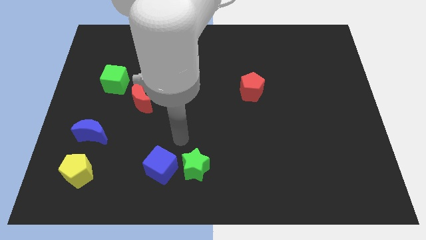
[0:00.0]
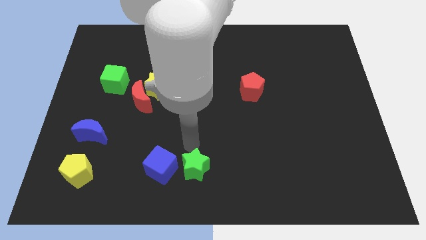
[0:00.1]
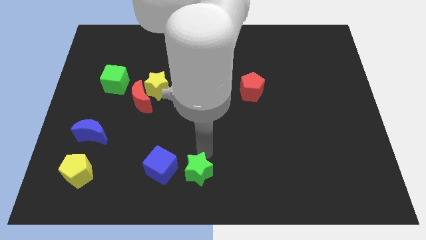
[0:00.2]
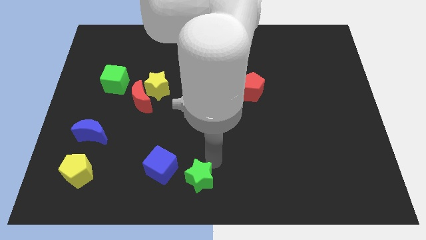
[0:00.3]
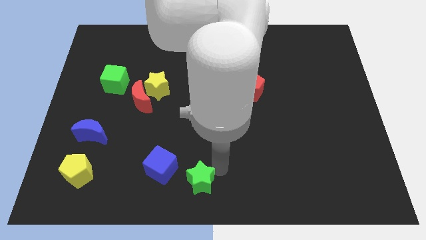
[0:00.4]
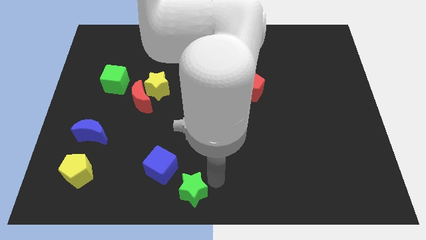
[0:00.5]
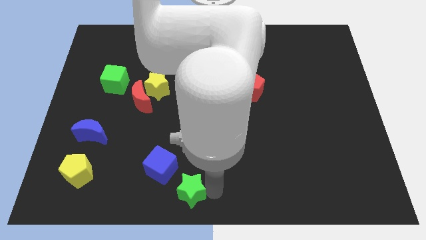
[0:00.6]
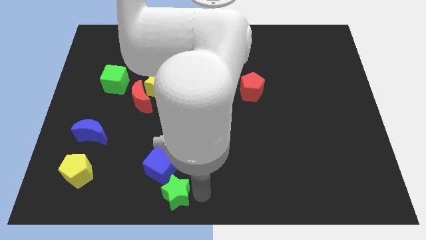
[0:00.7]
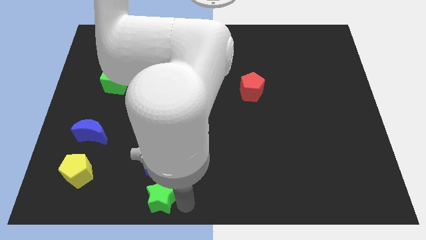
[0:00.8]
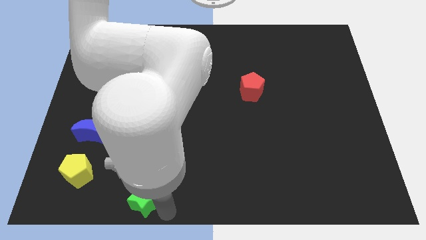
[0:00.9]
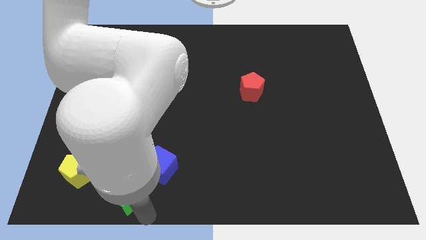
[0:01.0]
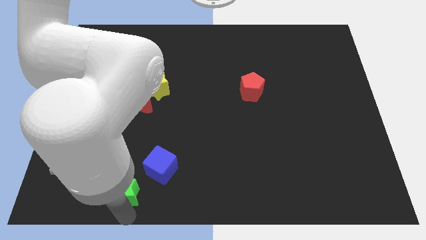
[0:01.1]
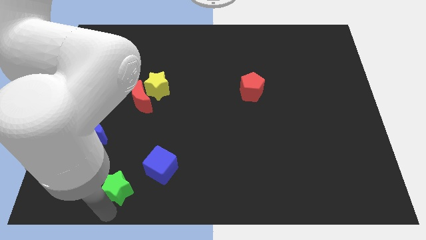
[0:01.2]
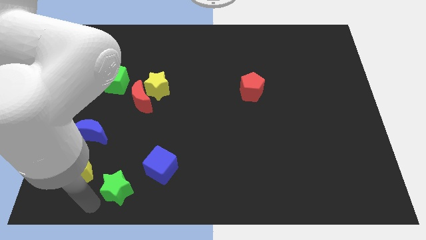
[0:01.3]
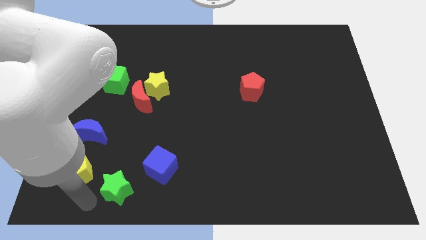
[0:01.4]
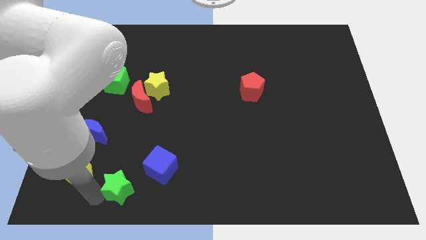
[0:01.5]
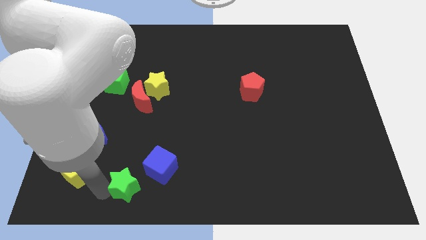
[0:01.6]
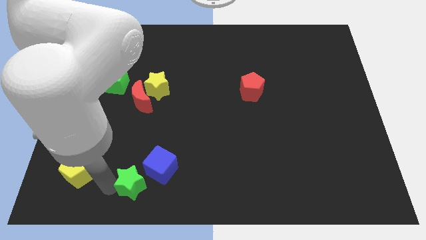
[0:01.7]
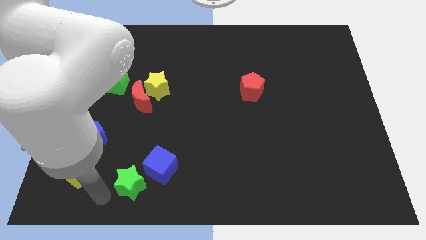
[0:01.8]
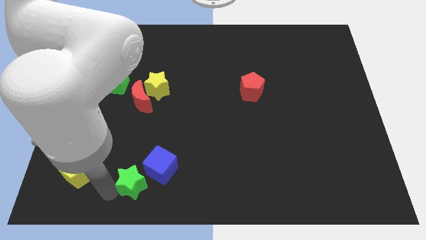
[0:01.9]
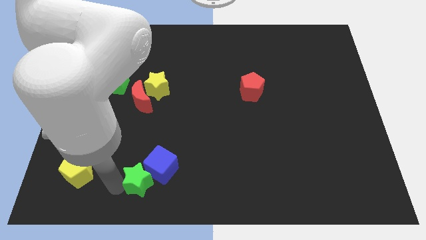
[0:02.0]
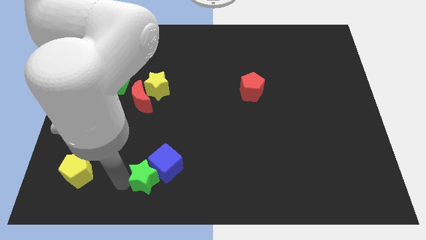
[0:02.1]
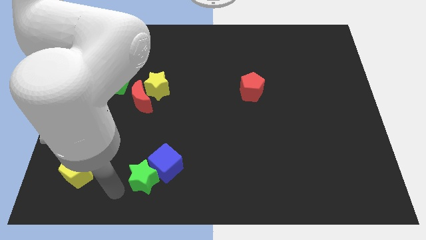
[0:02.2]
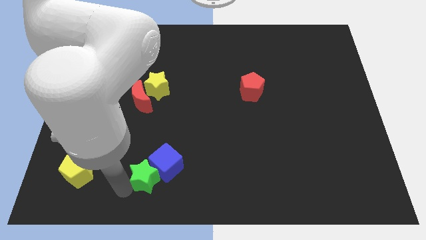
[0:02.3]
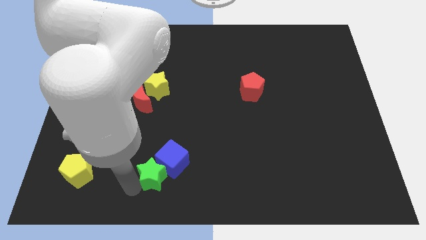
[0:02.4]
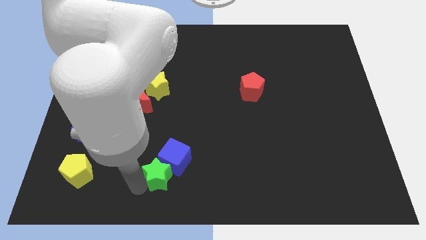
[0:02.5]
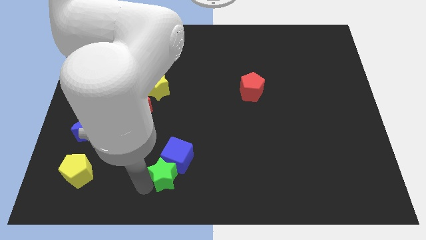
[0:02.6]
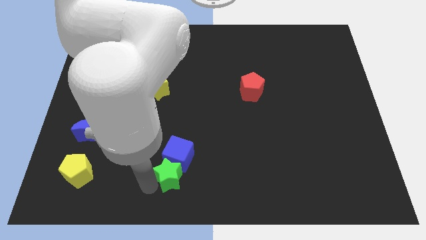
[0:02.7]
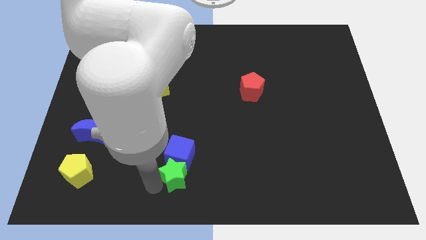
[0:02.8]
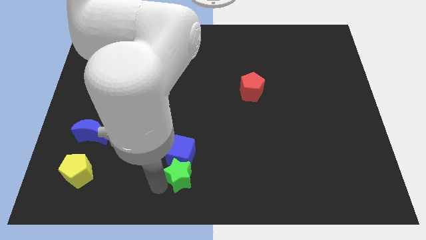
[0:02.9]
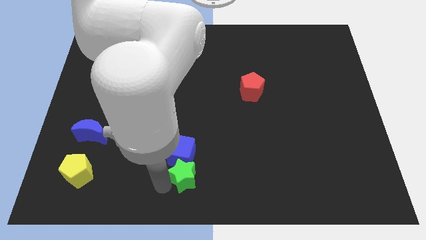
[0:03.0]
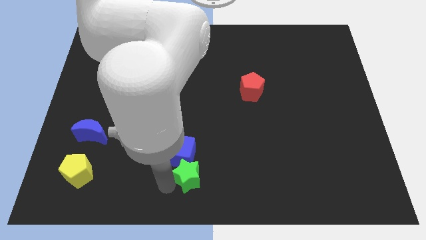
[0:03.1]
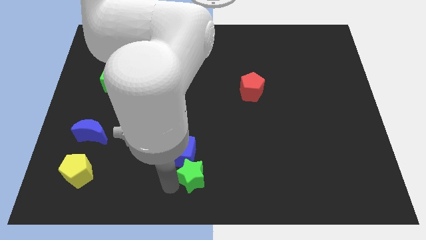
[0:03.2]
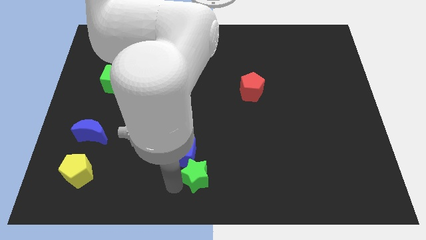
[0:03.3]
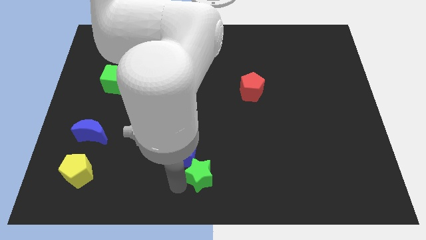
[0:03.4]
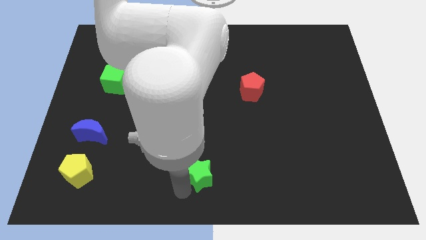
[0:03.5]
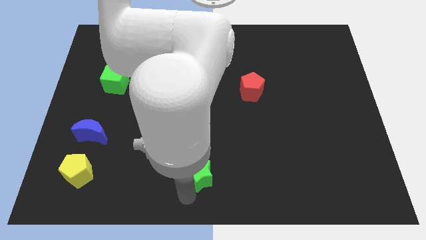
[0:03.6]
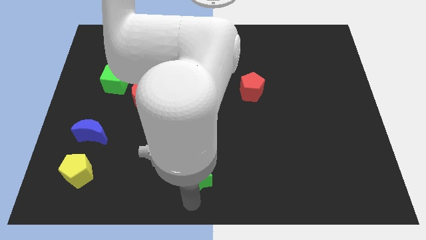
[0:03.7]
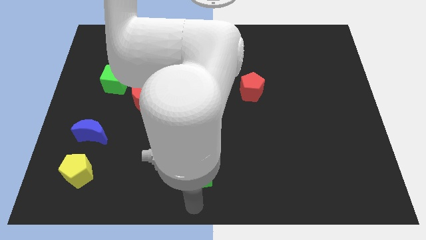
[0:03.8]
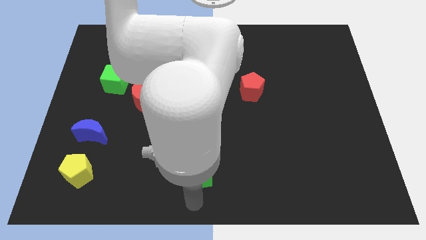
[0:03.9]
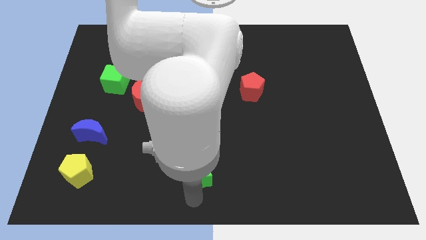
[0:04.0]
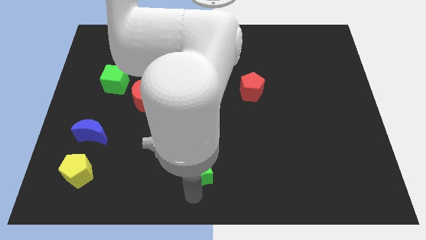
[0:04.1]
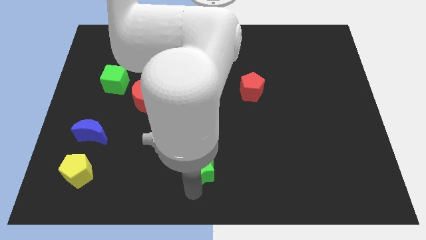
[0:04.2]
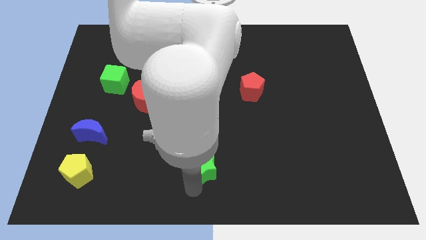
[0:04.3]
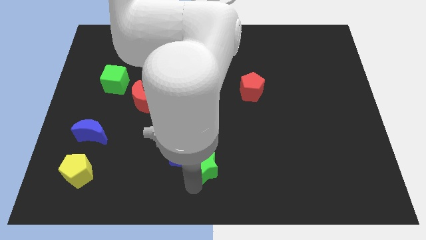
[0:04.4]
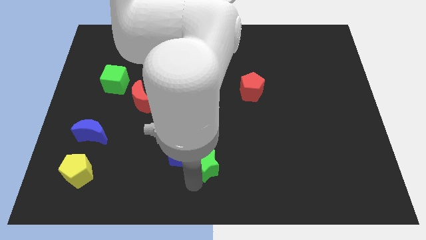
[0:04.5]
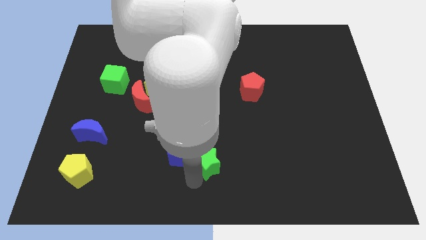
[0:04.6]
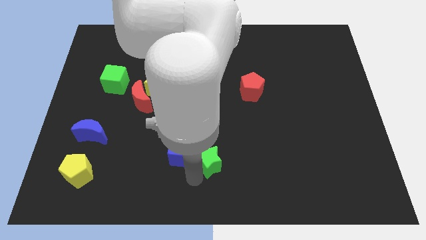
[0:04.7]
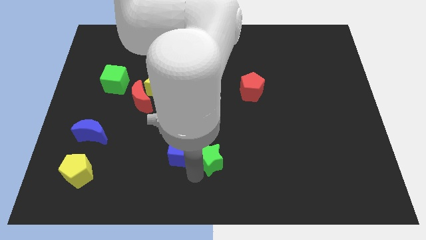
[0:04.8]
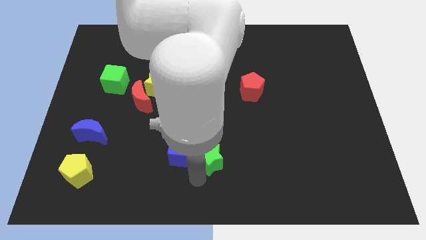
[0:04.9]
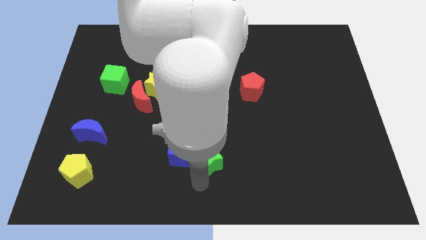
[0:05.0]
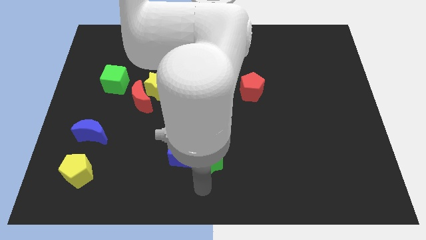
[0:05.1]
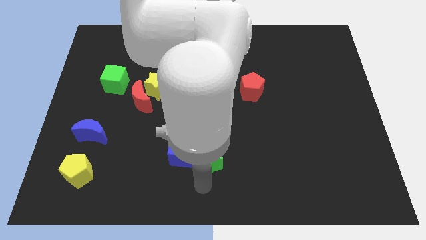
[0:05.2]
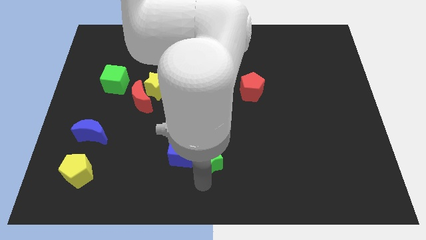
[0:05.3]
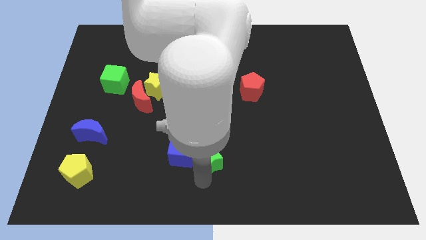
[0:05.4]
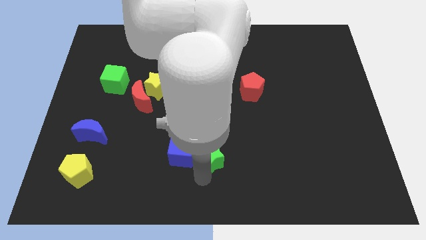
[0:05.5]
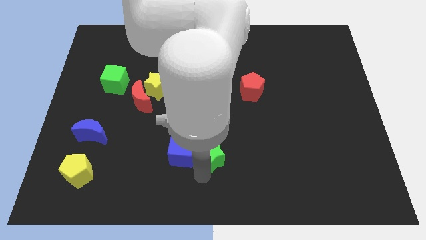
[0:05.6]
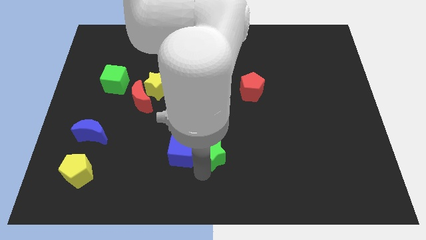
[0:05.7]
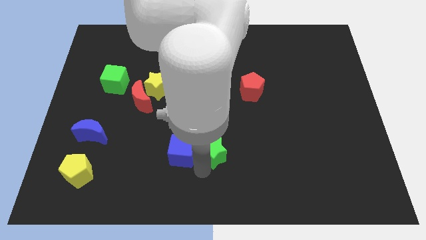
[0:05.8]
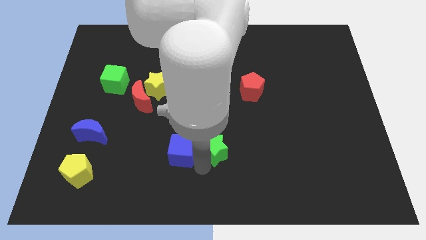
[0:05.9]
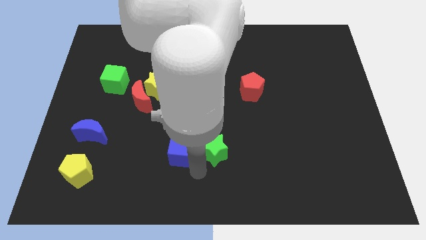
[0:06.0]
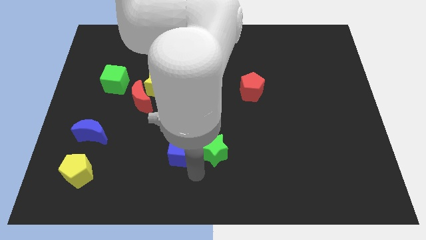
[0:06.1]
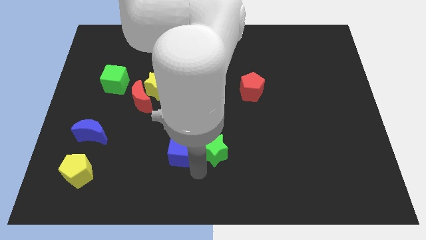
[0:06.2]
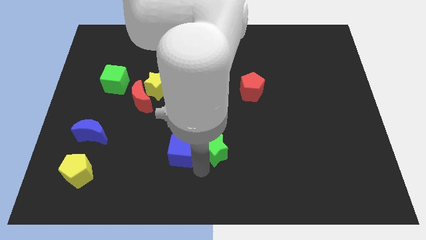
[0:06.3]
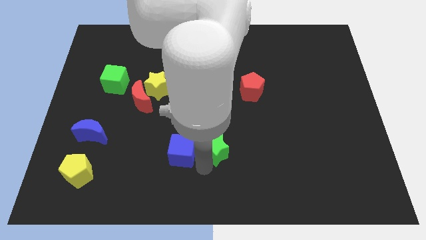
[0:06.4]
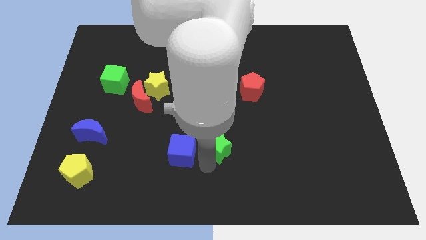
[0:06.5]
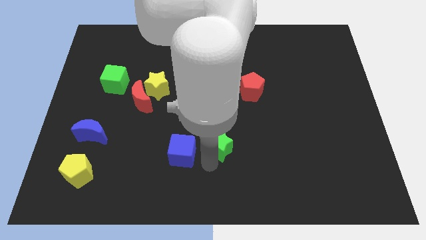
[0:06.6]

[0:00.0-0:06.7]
push the green star upwards and to the right a little bit

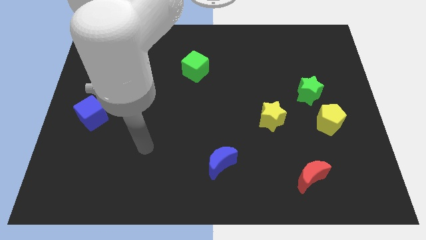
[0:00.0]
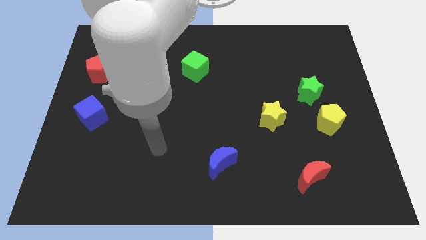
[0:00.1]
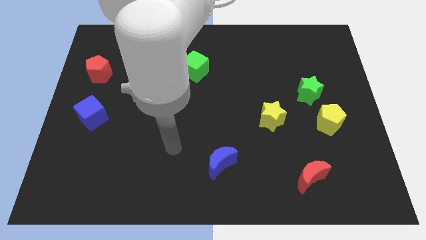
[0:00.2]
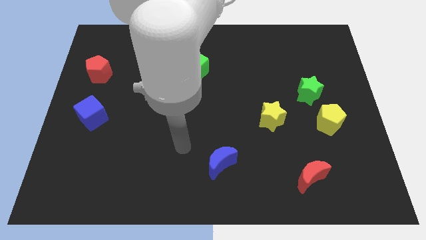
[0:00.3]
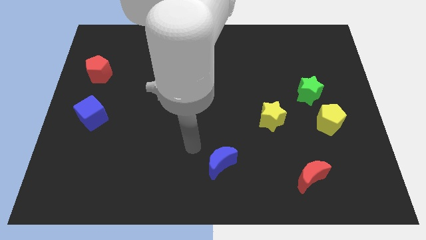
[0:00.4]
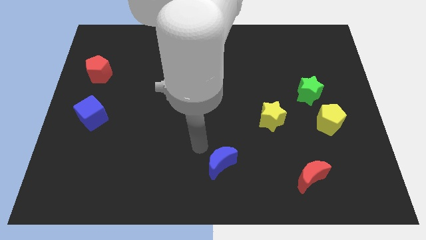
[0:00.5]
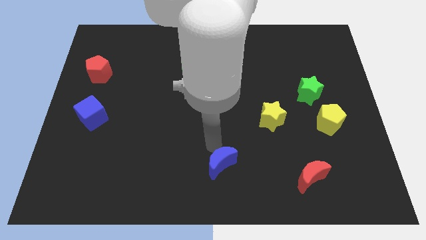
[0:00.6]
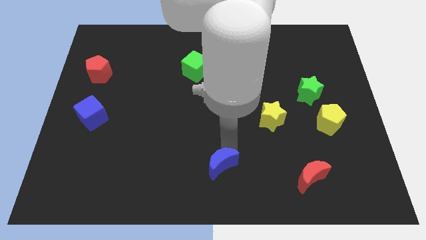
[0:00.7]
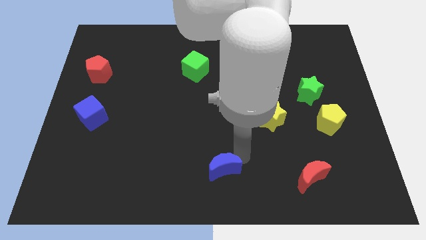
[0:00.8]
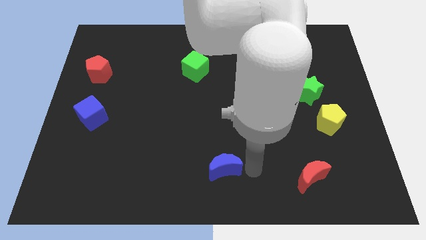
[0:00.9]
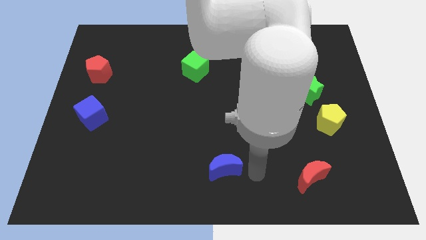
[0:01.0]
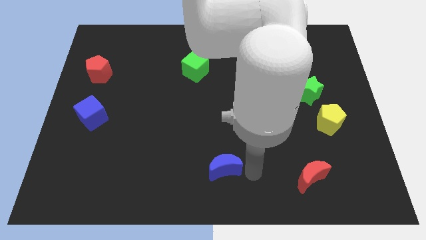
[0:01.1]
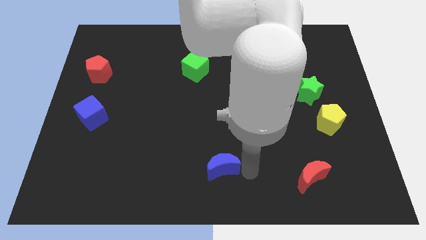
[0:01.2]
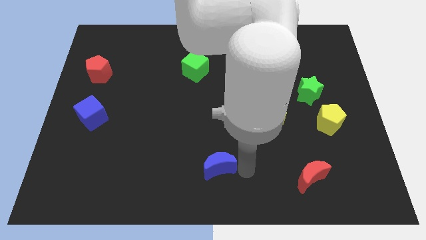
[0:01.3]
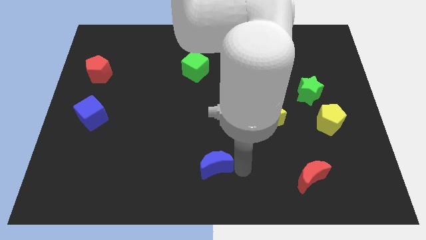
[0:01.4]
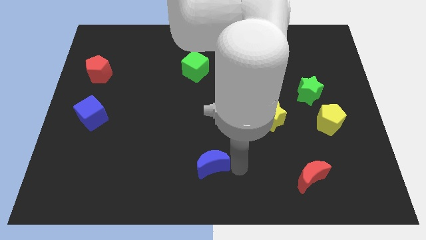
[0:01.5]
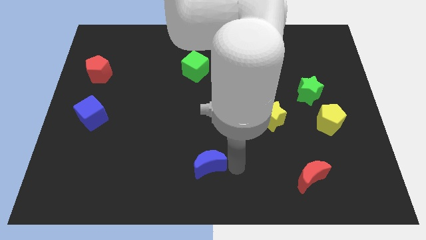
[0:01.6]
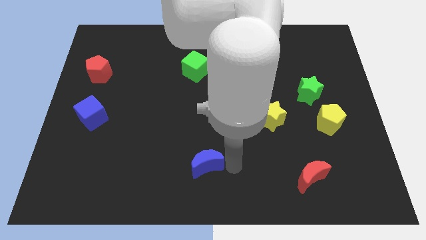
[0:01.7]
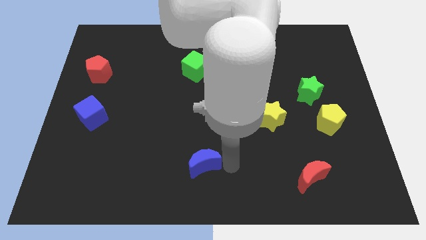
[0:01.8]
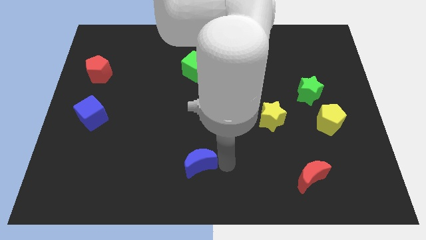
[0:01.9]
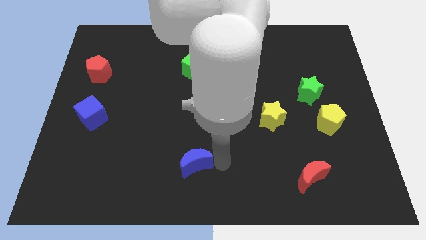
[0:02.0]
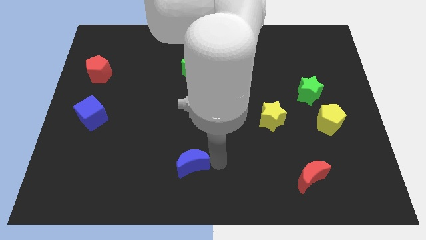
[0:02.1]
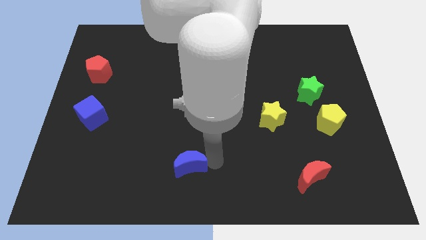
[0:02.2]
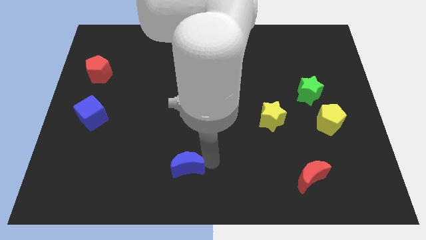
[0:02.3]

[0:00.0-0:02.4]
slide the blue moon to the left slightly
